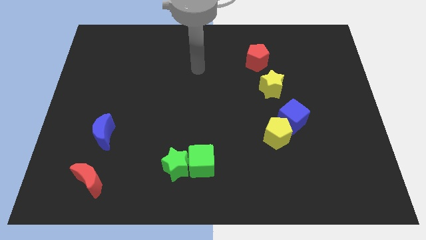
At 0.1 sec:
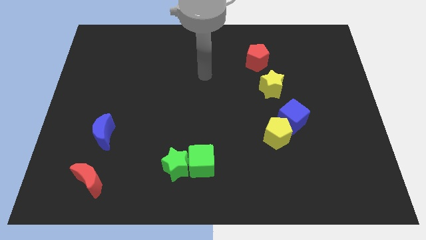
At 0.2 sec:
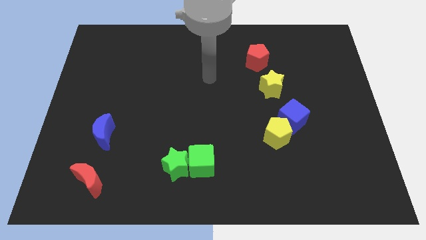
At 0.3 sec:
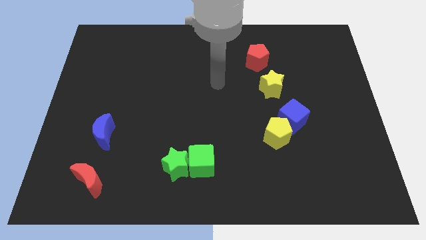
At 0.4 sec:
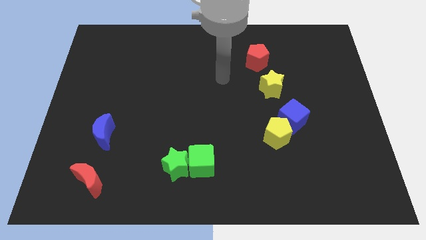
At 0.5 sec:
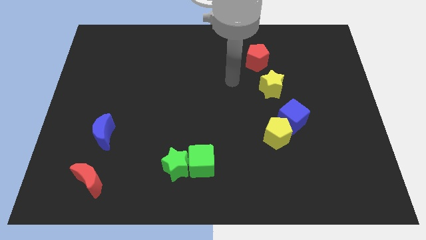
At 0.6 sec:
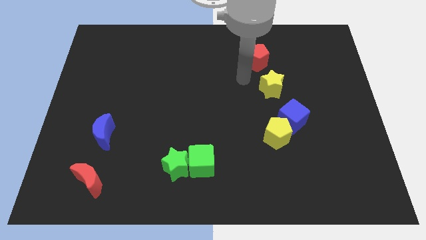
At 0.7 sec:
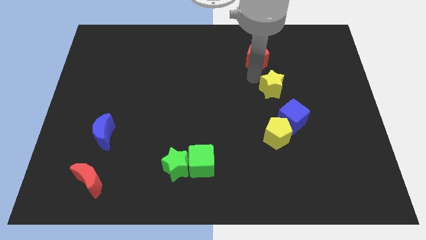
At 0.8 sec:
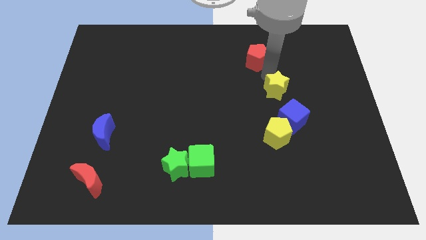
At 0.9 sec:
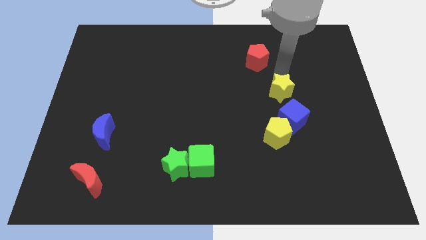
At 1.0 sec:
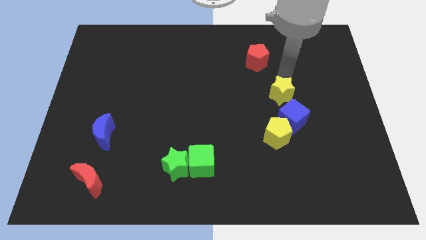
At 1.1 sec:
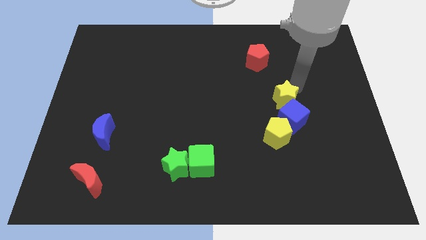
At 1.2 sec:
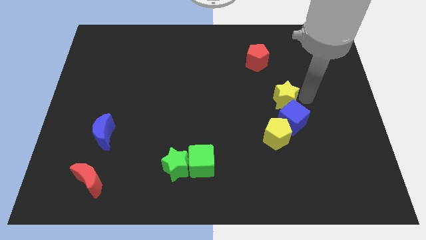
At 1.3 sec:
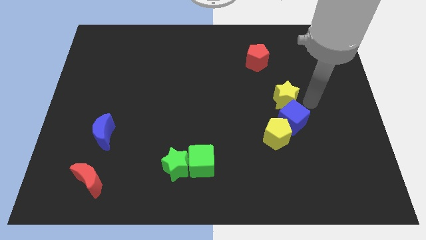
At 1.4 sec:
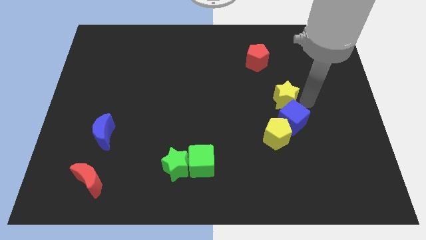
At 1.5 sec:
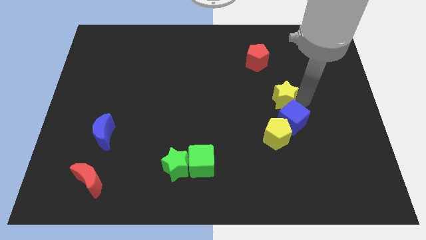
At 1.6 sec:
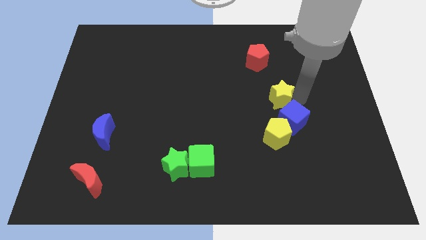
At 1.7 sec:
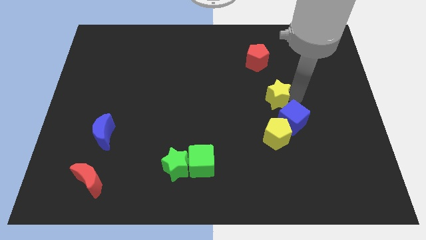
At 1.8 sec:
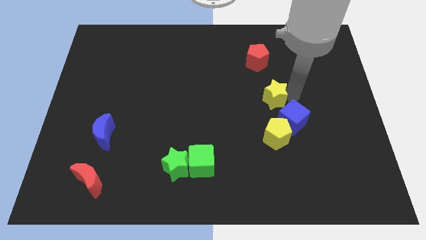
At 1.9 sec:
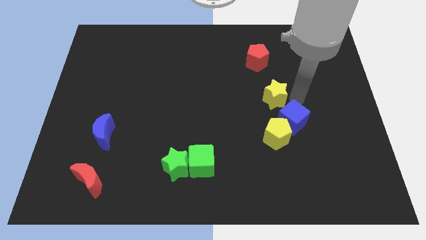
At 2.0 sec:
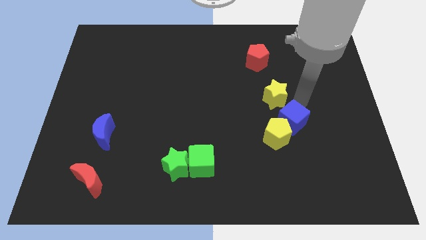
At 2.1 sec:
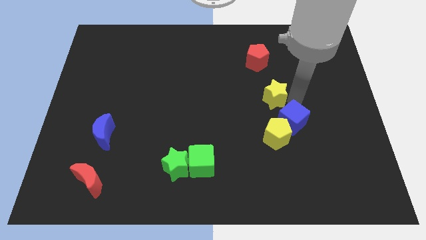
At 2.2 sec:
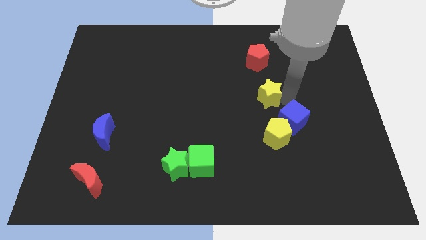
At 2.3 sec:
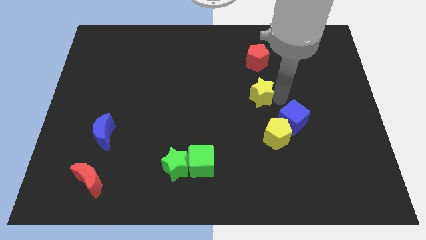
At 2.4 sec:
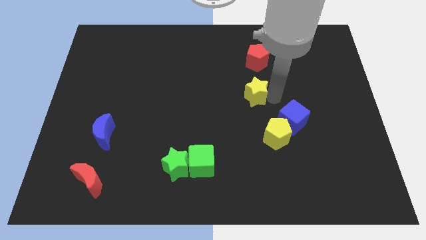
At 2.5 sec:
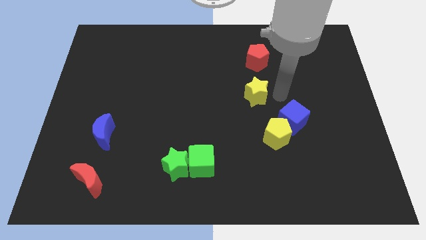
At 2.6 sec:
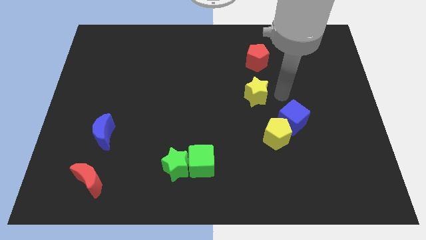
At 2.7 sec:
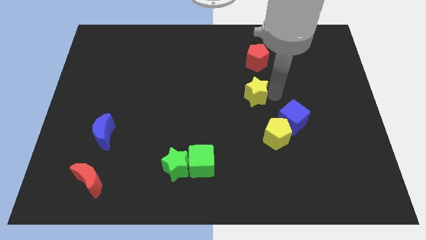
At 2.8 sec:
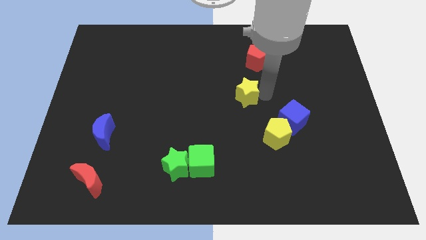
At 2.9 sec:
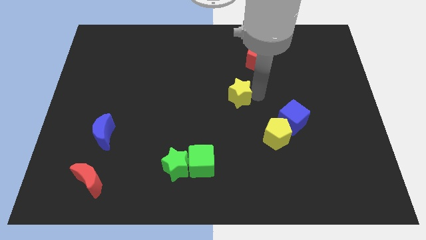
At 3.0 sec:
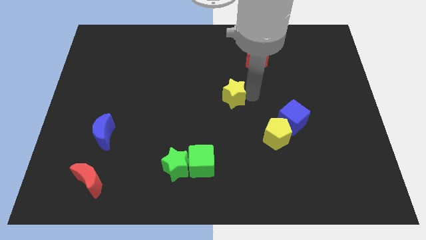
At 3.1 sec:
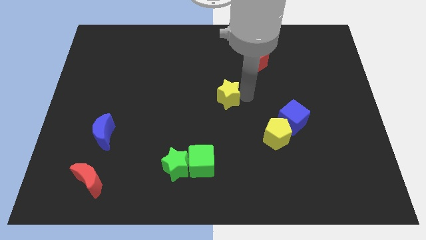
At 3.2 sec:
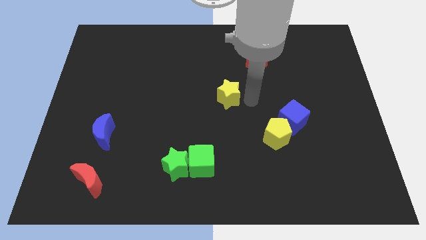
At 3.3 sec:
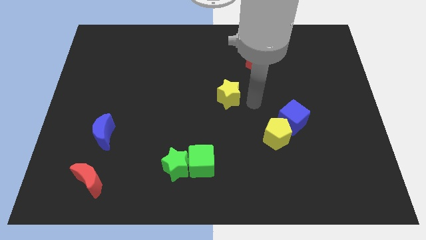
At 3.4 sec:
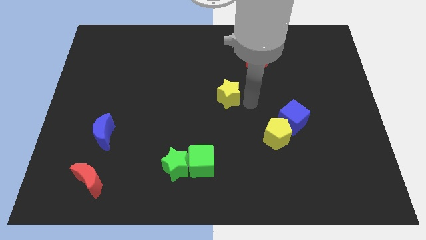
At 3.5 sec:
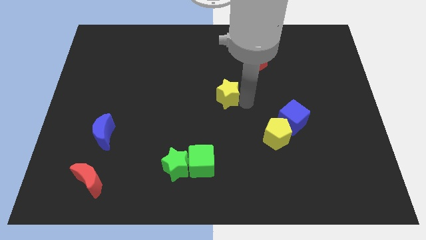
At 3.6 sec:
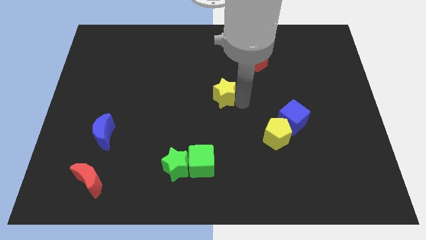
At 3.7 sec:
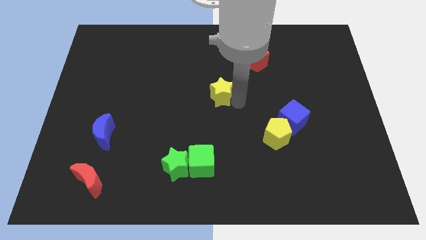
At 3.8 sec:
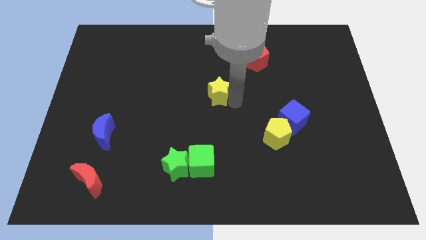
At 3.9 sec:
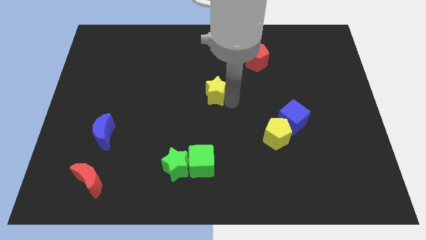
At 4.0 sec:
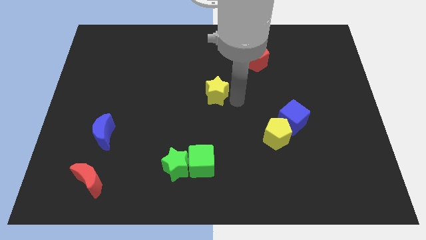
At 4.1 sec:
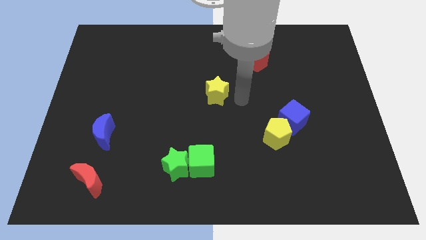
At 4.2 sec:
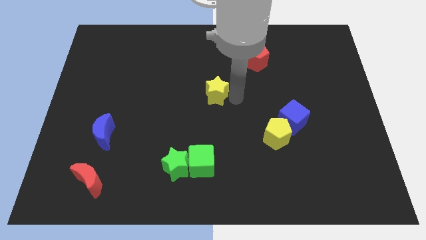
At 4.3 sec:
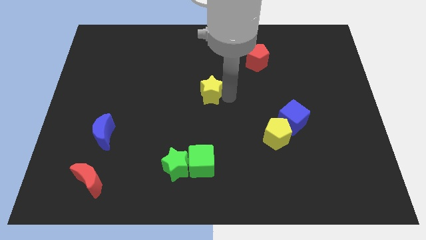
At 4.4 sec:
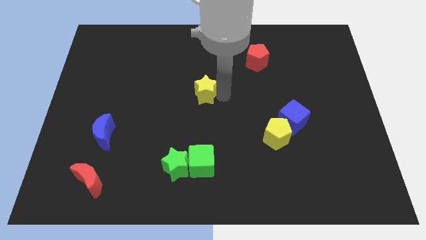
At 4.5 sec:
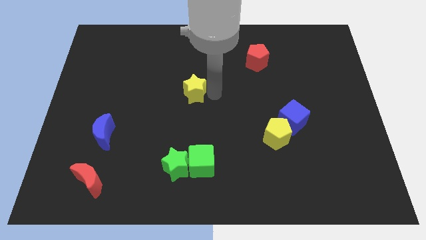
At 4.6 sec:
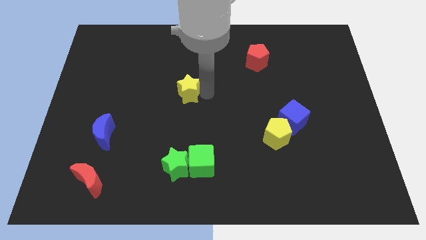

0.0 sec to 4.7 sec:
move the yellow star left

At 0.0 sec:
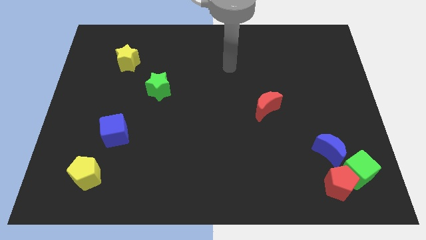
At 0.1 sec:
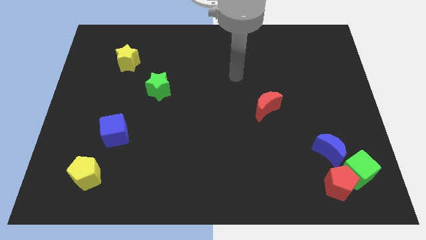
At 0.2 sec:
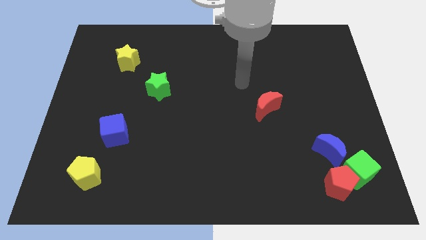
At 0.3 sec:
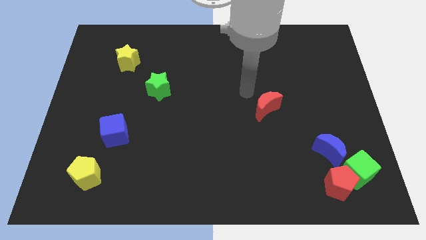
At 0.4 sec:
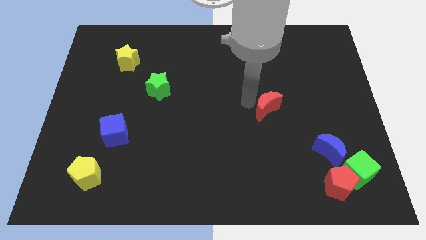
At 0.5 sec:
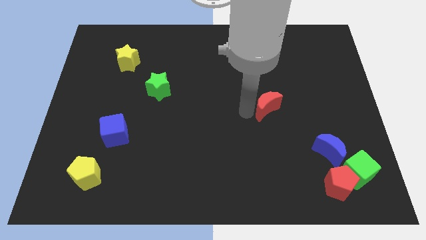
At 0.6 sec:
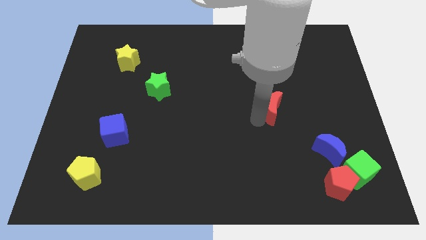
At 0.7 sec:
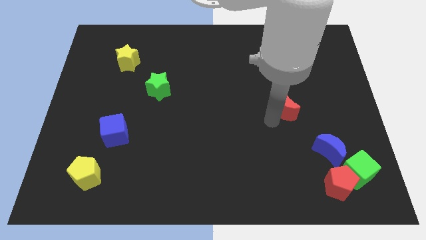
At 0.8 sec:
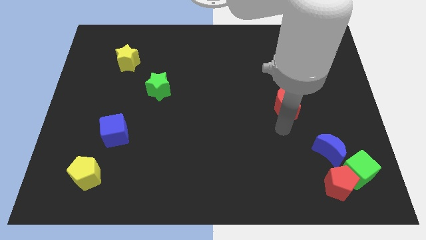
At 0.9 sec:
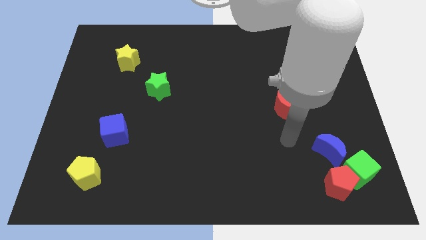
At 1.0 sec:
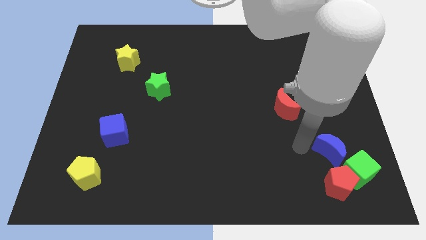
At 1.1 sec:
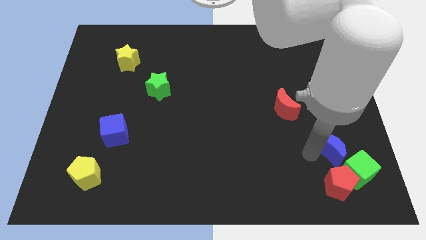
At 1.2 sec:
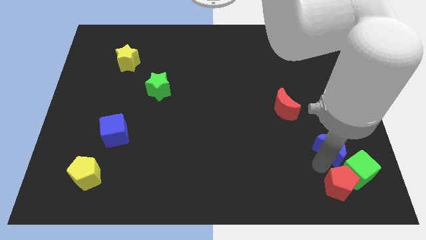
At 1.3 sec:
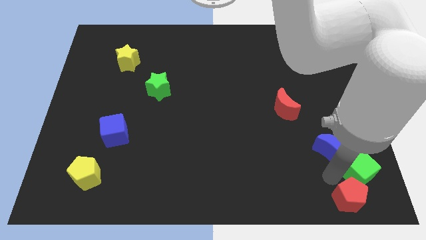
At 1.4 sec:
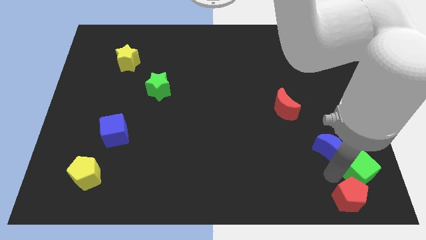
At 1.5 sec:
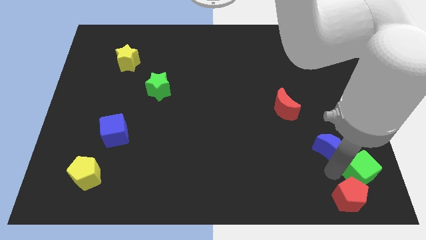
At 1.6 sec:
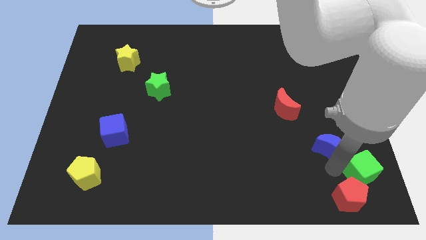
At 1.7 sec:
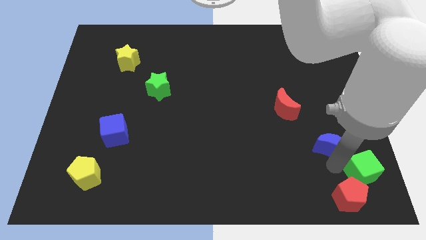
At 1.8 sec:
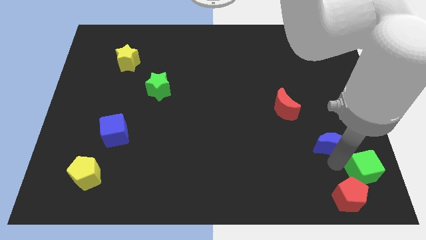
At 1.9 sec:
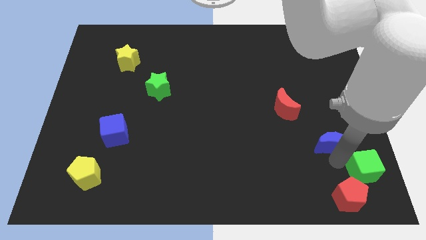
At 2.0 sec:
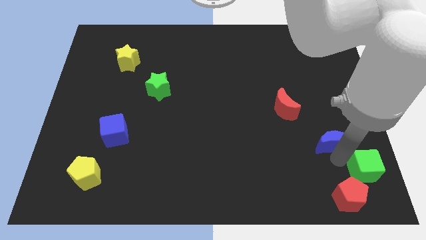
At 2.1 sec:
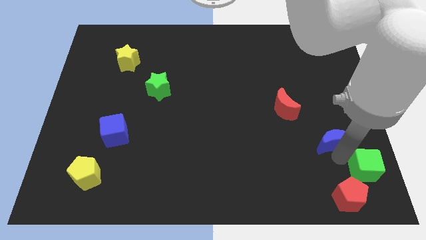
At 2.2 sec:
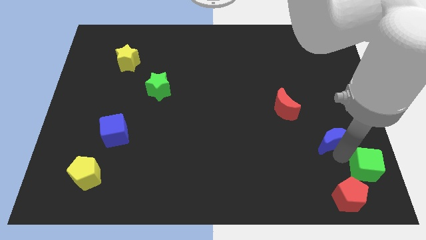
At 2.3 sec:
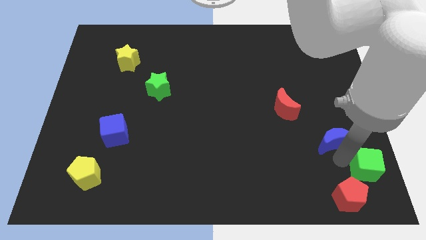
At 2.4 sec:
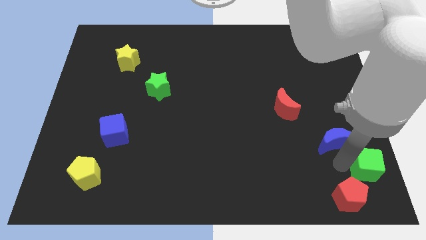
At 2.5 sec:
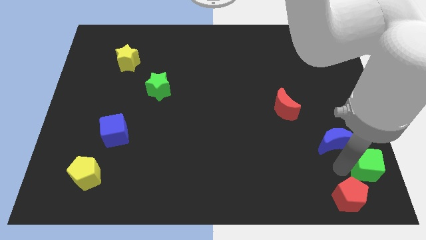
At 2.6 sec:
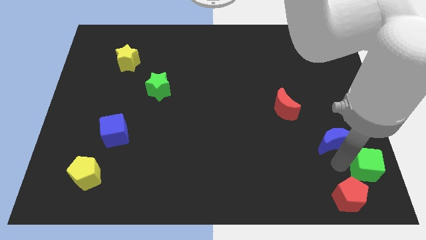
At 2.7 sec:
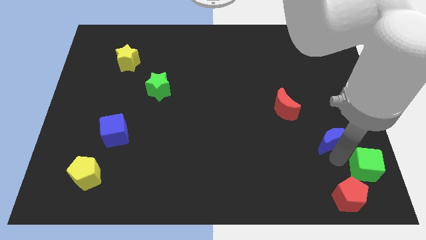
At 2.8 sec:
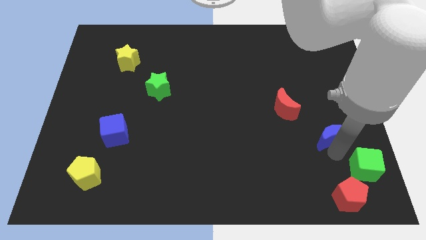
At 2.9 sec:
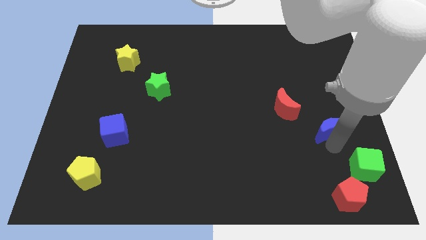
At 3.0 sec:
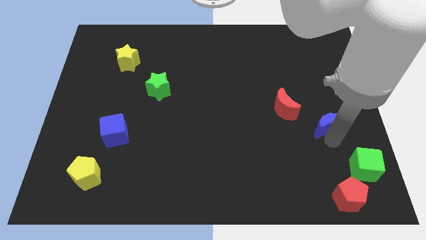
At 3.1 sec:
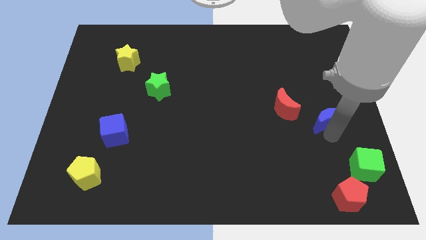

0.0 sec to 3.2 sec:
move the blue moon a bit up
